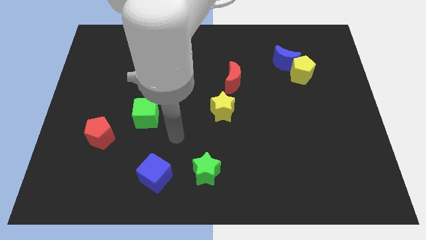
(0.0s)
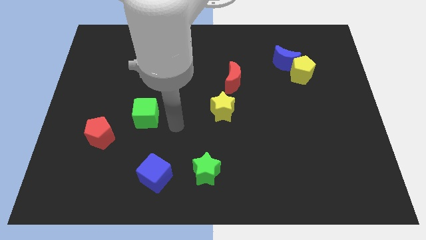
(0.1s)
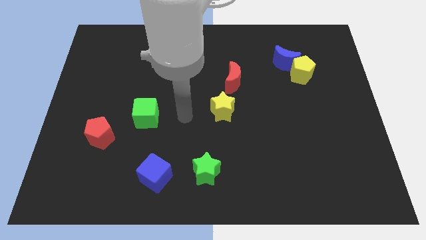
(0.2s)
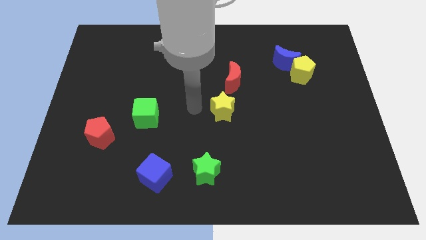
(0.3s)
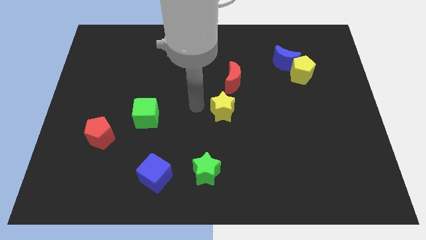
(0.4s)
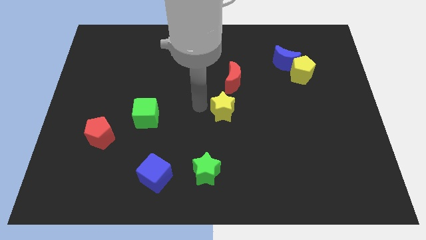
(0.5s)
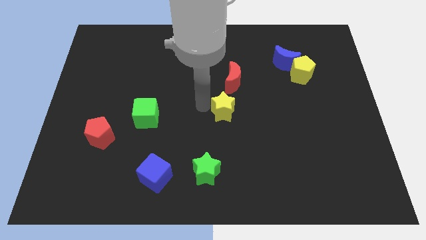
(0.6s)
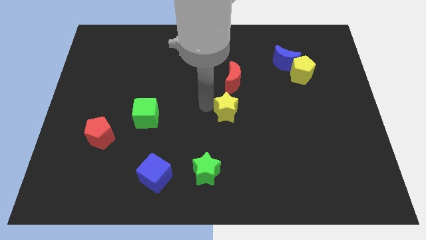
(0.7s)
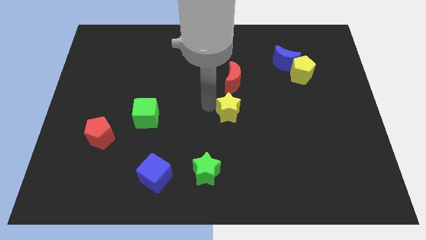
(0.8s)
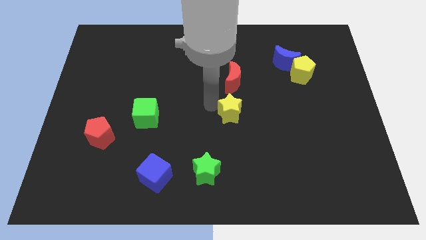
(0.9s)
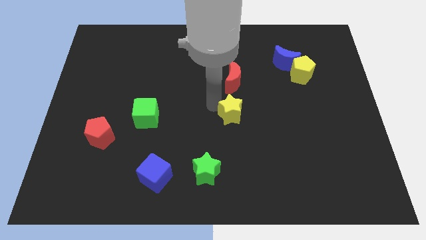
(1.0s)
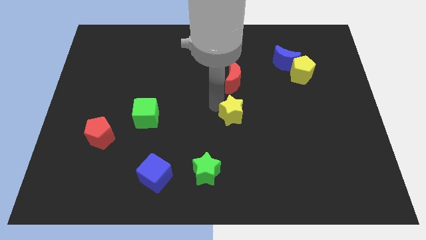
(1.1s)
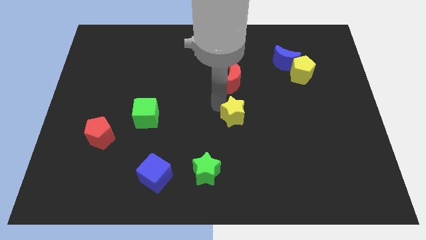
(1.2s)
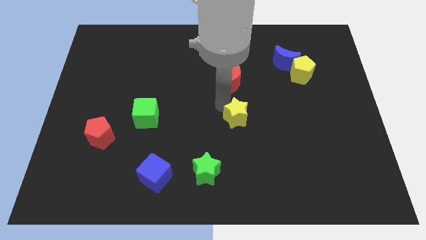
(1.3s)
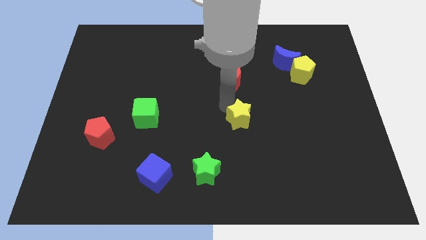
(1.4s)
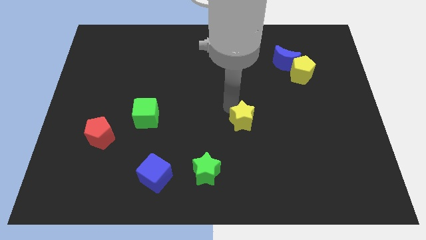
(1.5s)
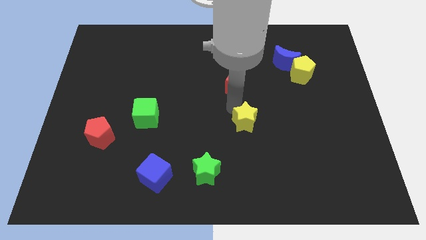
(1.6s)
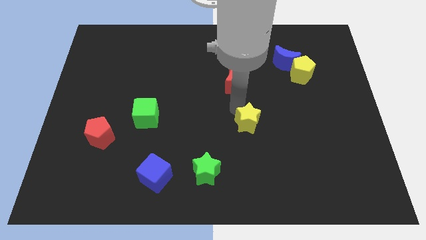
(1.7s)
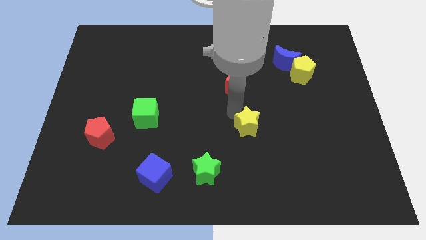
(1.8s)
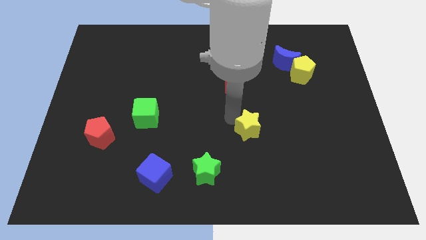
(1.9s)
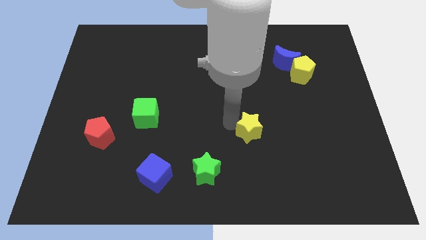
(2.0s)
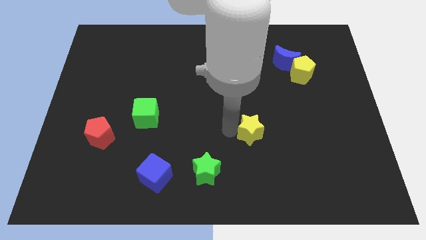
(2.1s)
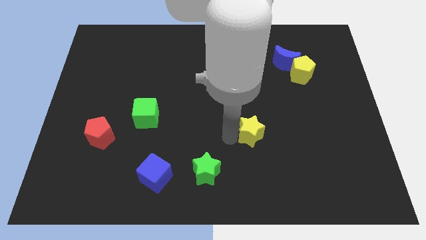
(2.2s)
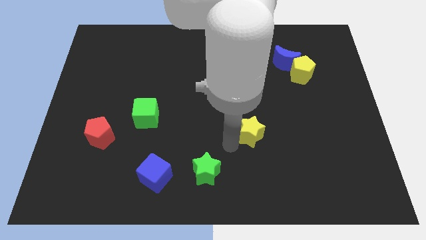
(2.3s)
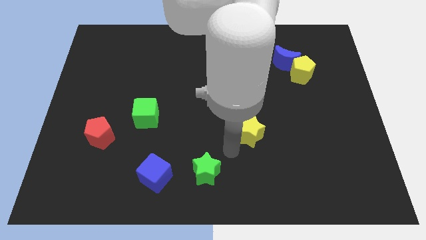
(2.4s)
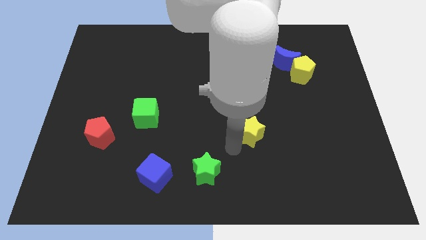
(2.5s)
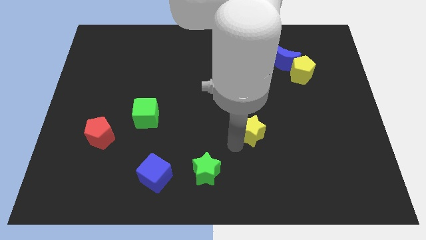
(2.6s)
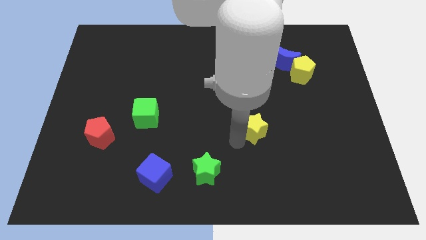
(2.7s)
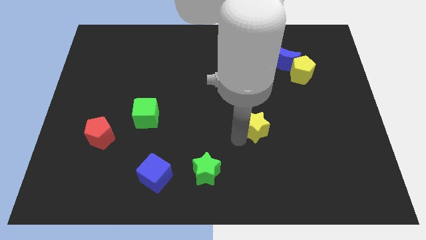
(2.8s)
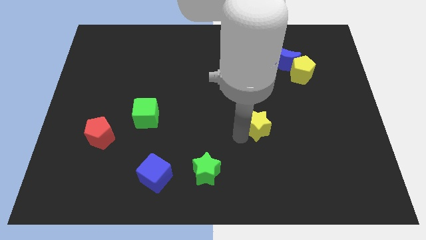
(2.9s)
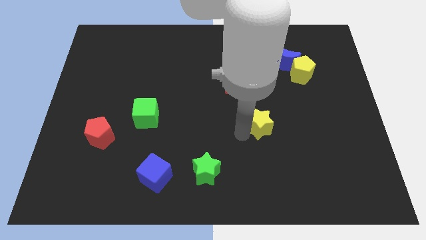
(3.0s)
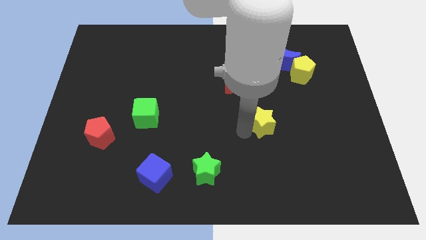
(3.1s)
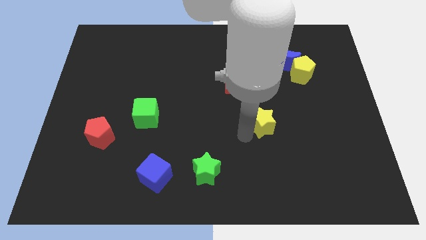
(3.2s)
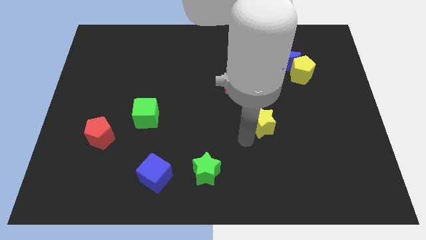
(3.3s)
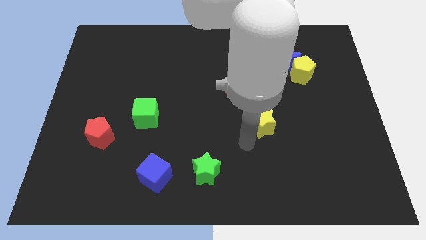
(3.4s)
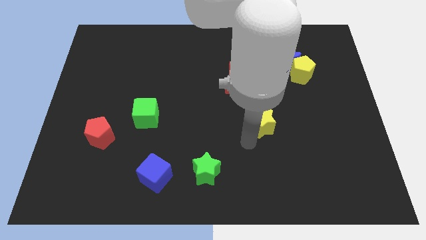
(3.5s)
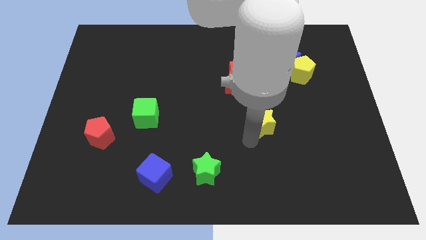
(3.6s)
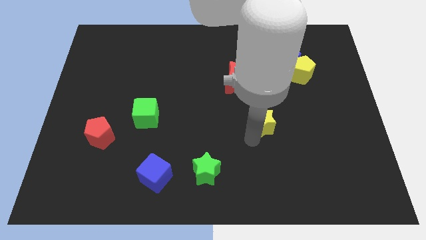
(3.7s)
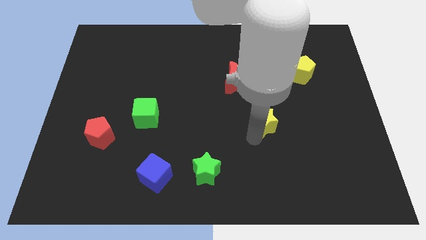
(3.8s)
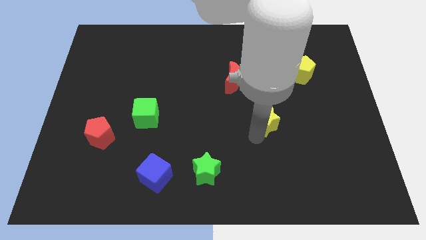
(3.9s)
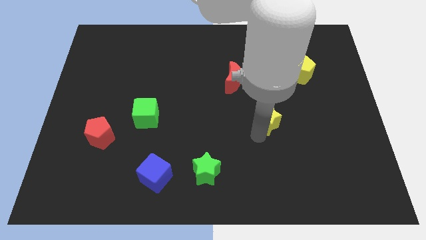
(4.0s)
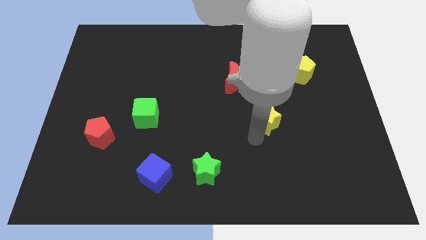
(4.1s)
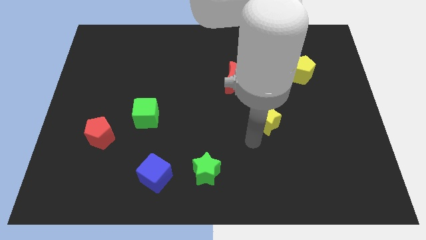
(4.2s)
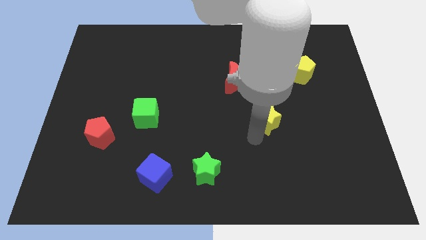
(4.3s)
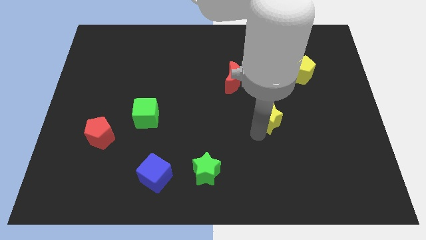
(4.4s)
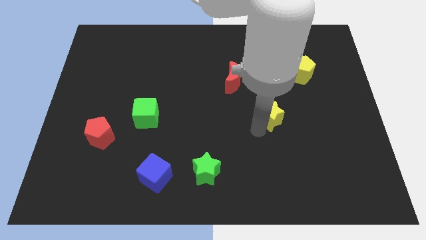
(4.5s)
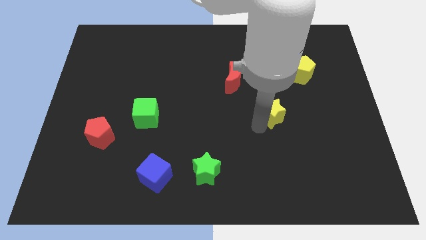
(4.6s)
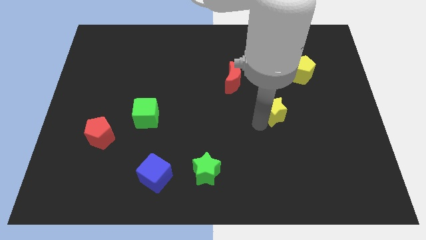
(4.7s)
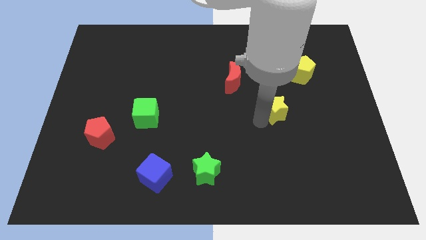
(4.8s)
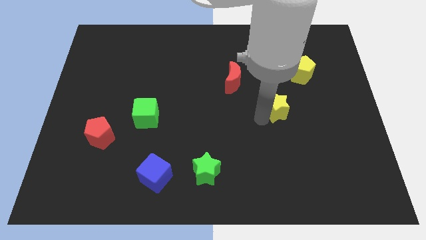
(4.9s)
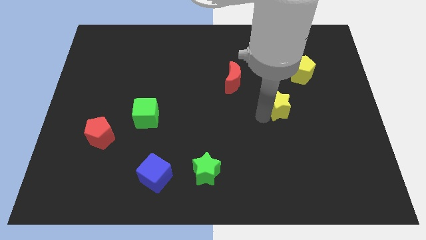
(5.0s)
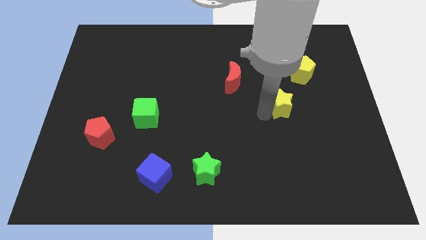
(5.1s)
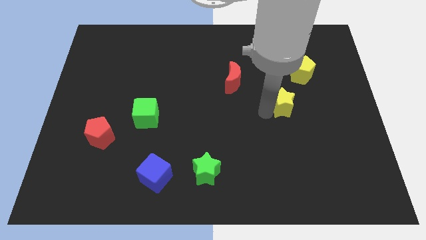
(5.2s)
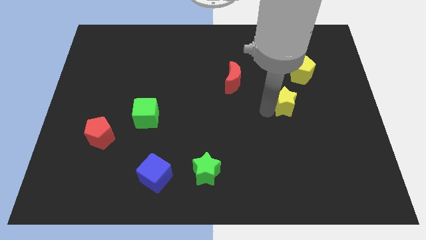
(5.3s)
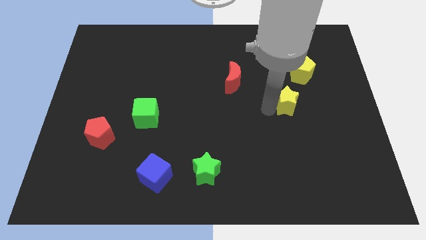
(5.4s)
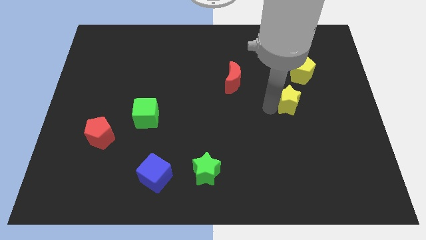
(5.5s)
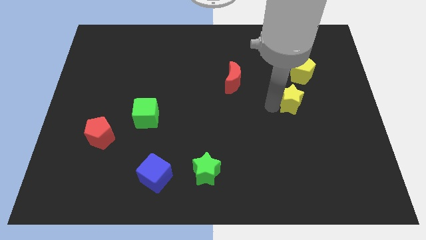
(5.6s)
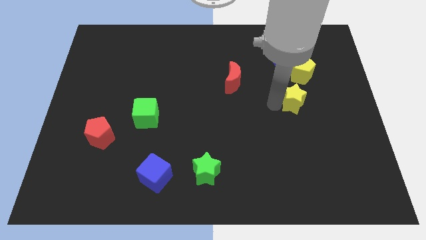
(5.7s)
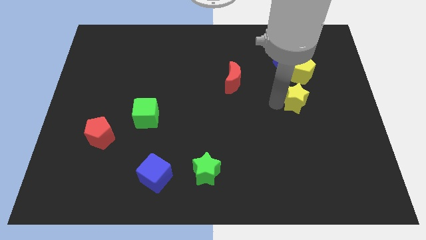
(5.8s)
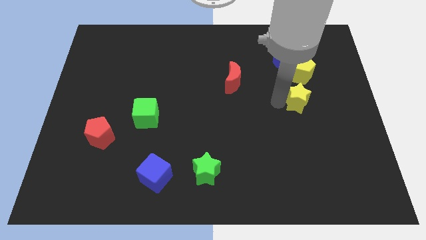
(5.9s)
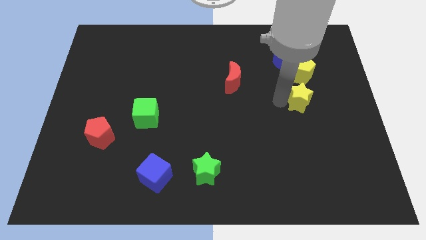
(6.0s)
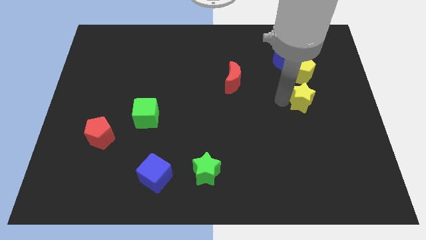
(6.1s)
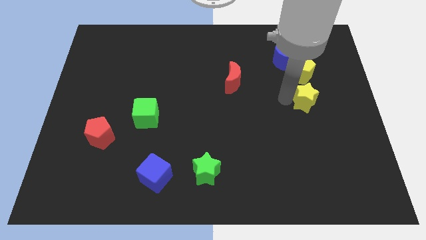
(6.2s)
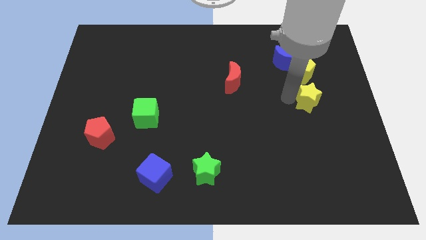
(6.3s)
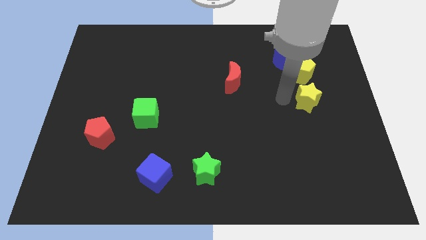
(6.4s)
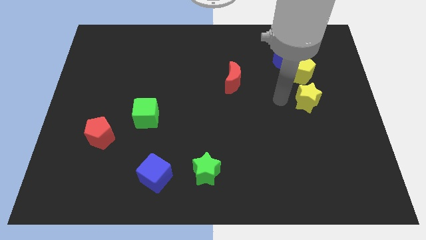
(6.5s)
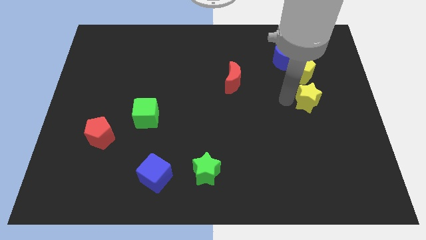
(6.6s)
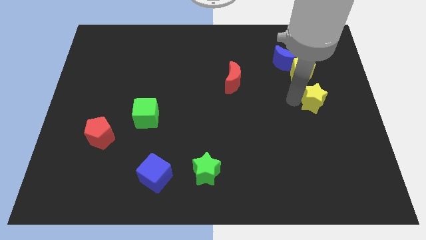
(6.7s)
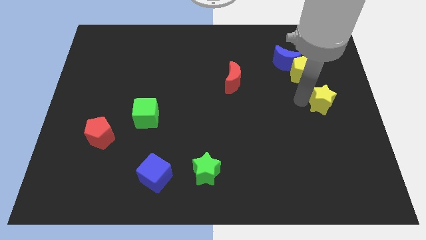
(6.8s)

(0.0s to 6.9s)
move the yellow star to the right side

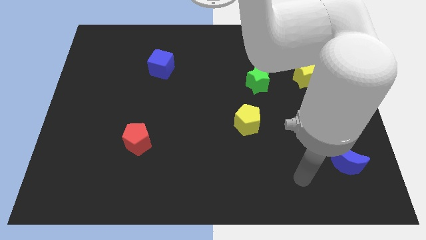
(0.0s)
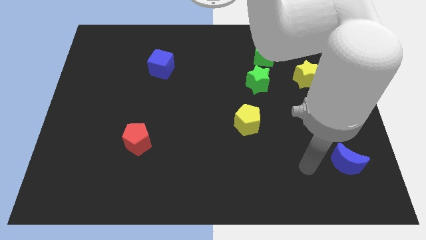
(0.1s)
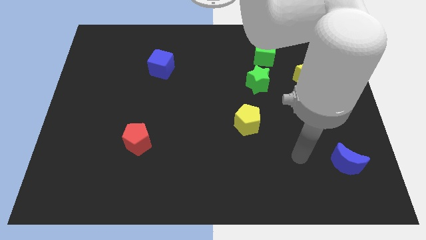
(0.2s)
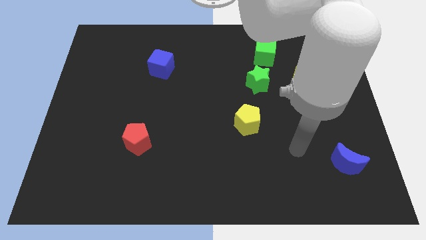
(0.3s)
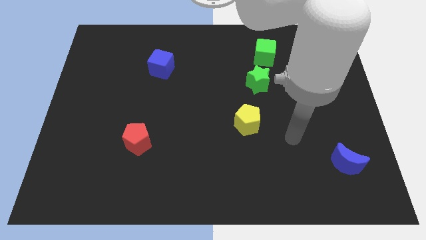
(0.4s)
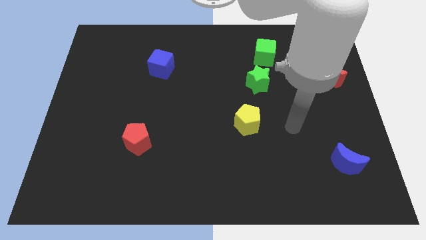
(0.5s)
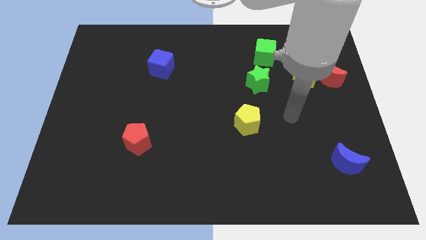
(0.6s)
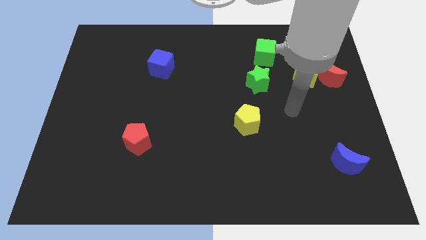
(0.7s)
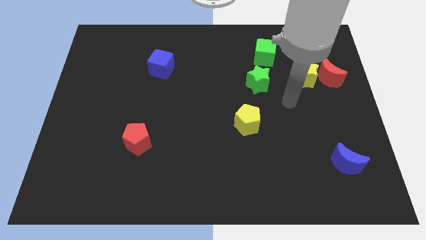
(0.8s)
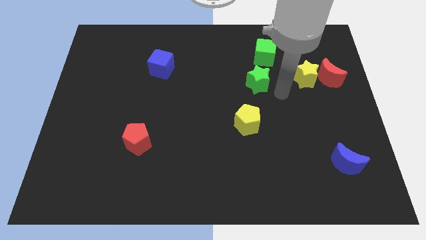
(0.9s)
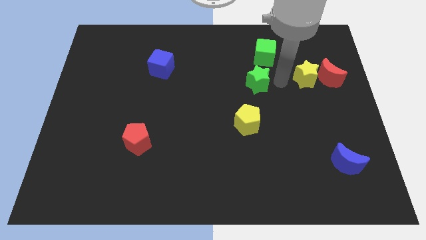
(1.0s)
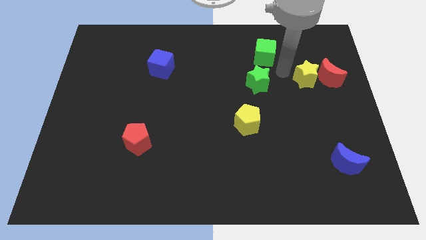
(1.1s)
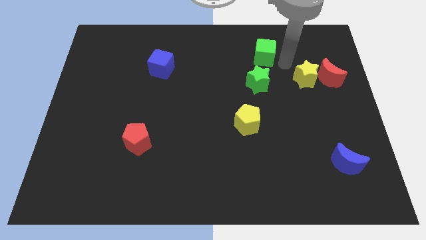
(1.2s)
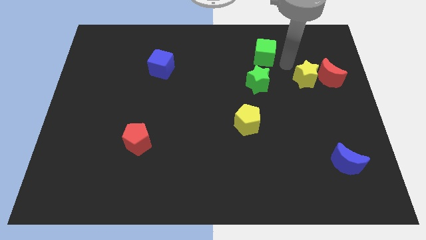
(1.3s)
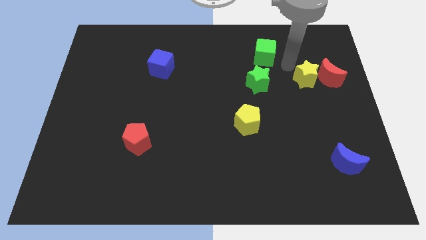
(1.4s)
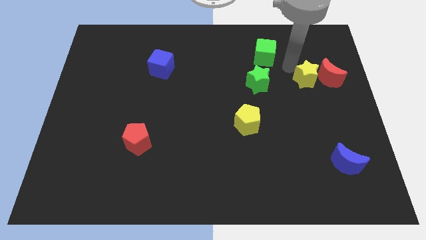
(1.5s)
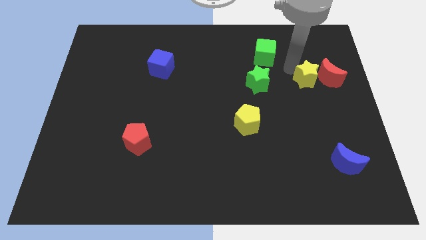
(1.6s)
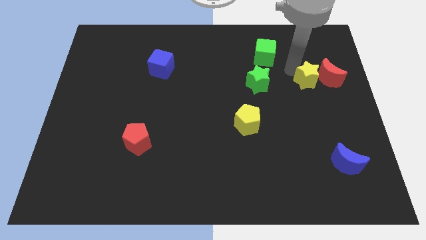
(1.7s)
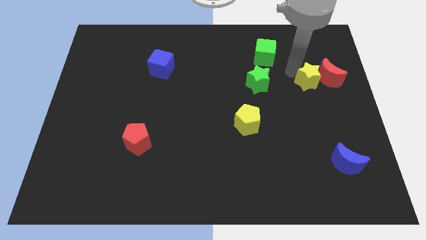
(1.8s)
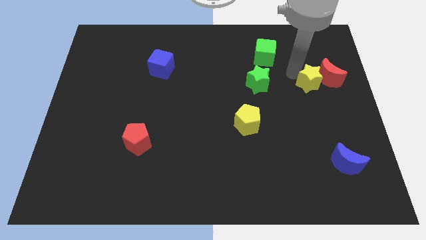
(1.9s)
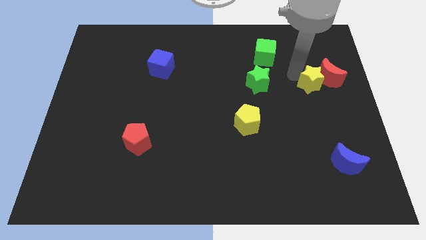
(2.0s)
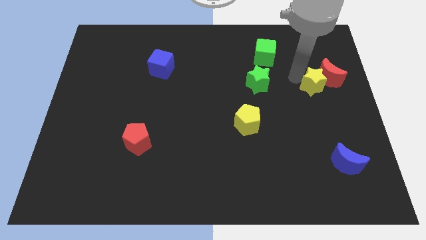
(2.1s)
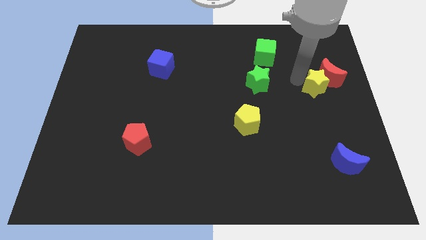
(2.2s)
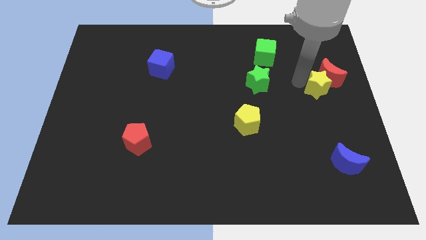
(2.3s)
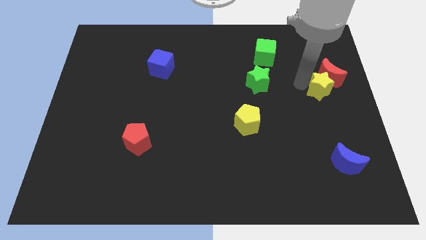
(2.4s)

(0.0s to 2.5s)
push the yellow star to the right side
